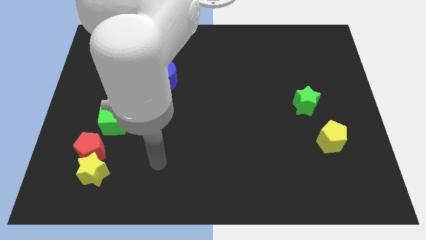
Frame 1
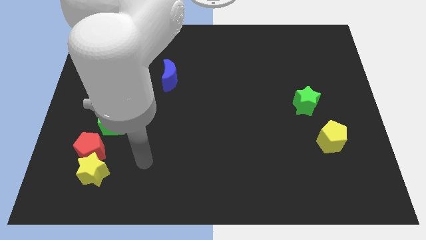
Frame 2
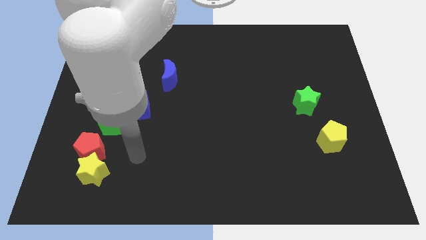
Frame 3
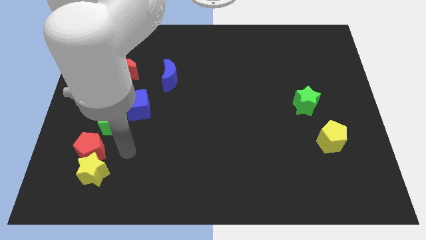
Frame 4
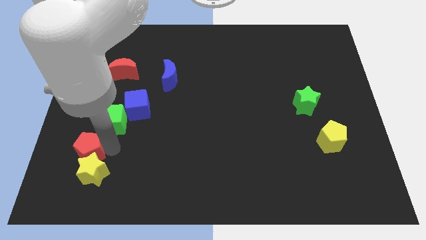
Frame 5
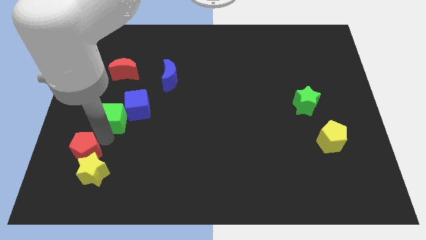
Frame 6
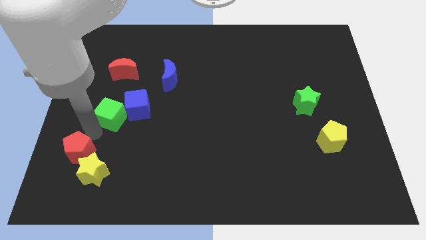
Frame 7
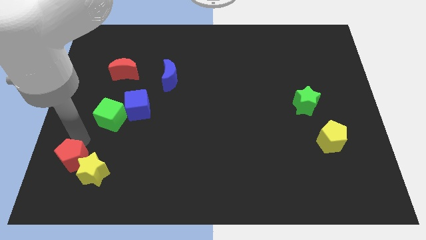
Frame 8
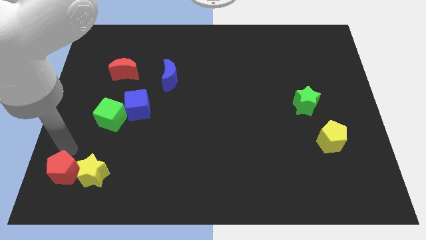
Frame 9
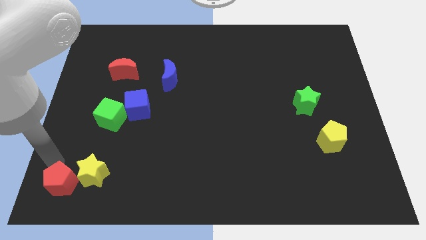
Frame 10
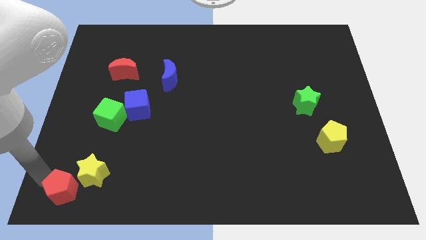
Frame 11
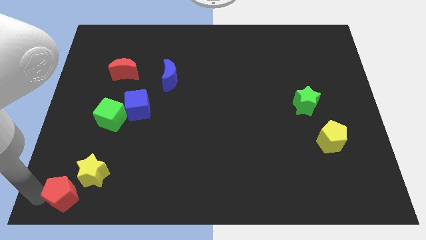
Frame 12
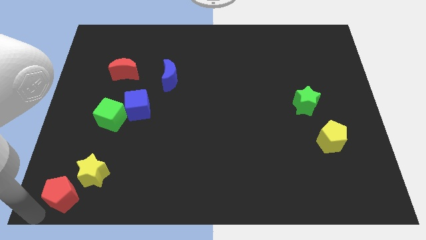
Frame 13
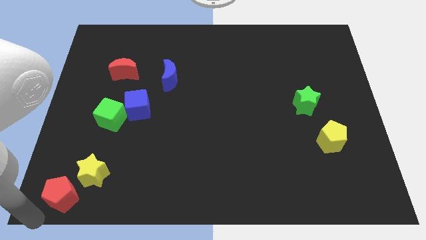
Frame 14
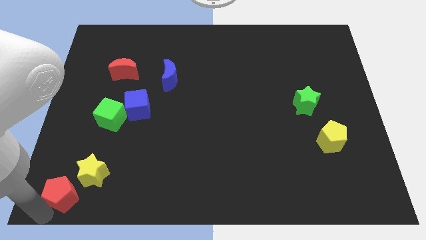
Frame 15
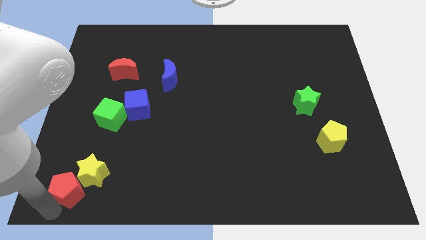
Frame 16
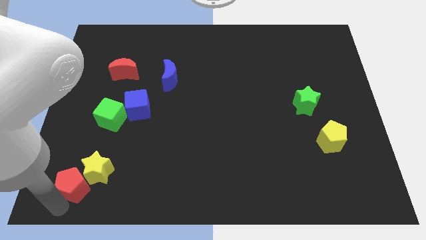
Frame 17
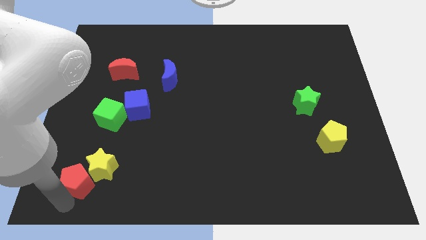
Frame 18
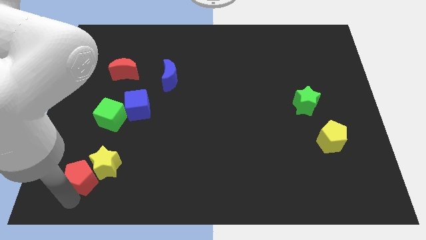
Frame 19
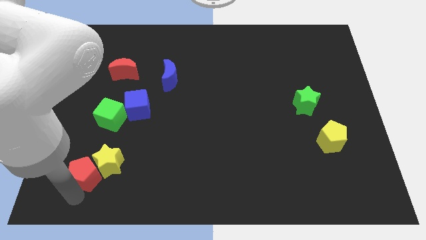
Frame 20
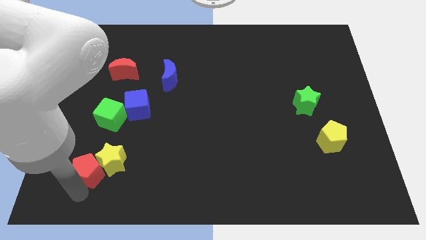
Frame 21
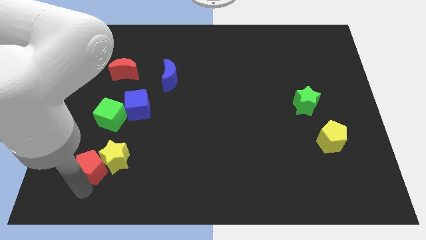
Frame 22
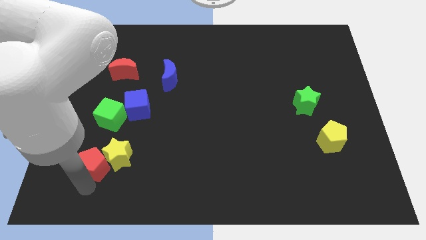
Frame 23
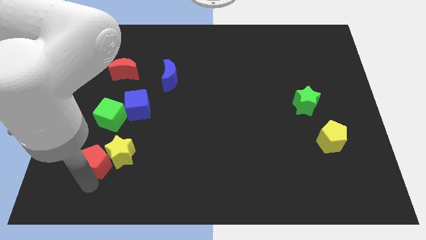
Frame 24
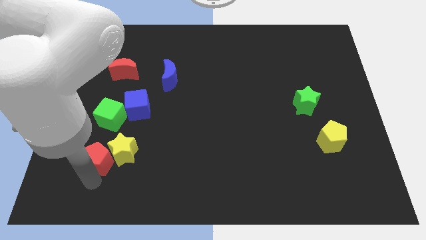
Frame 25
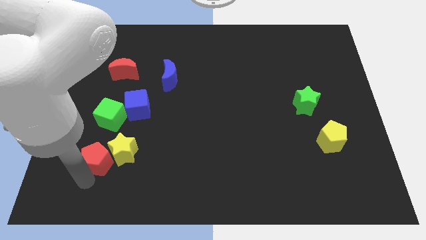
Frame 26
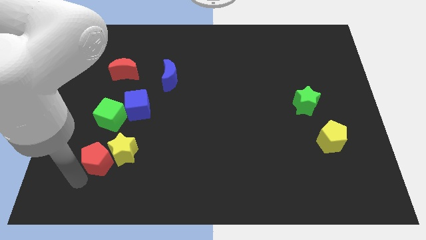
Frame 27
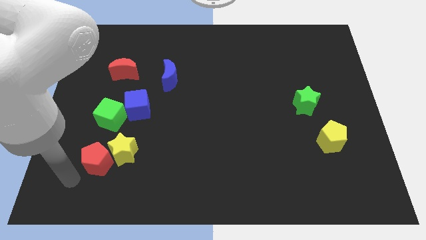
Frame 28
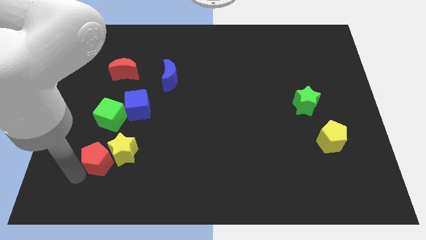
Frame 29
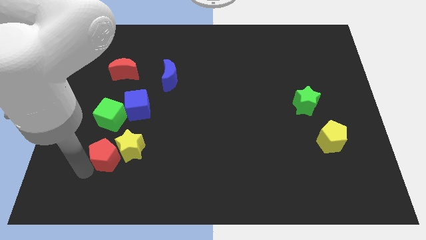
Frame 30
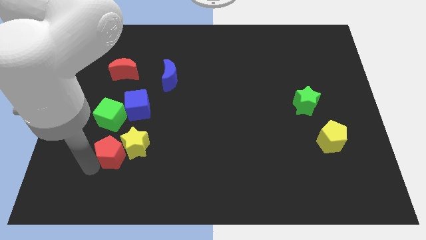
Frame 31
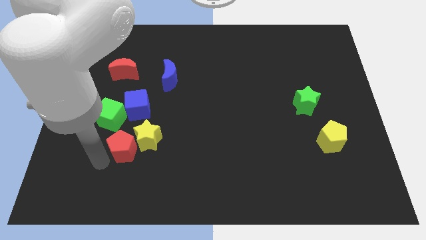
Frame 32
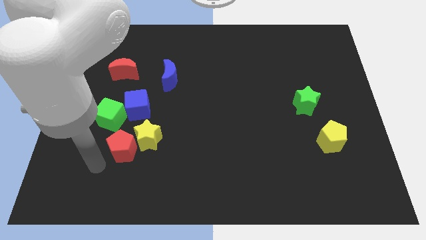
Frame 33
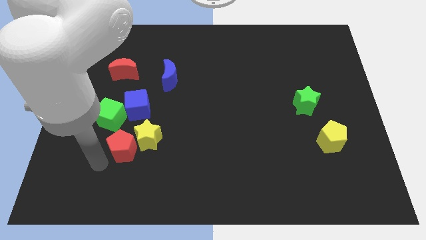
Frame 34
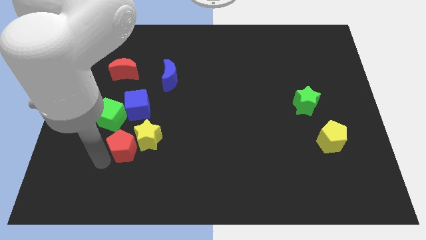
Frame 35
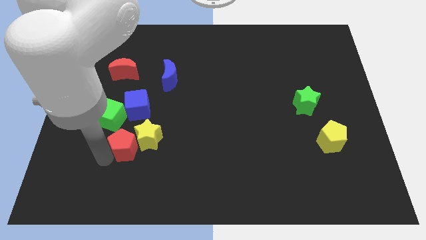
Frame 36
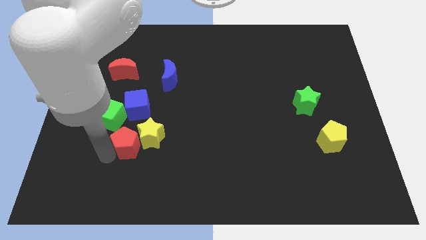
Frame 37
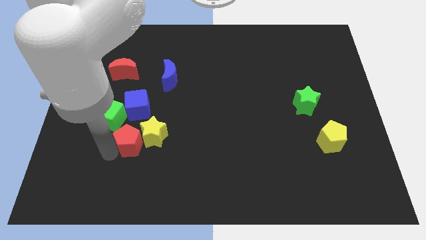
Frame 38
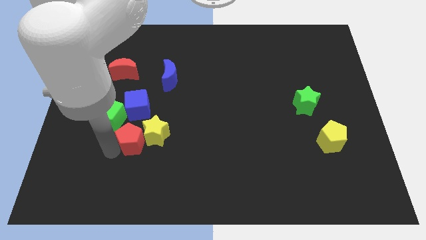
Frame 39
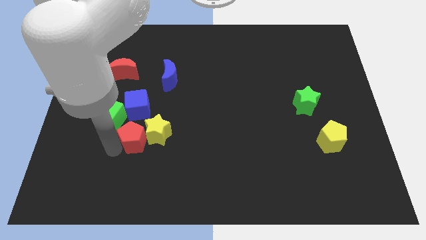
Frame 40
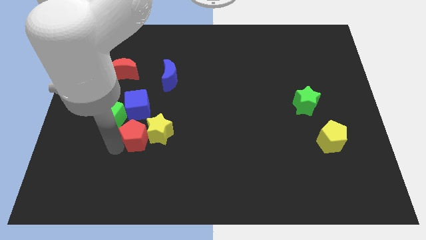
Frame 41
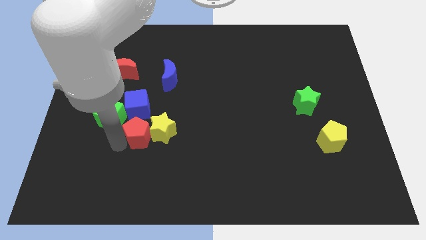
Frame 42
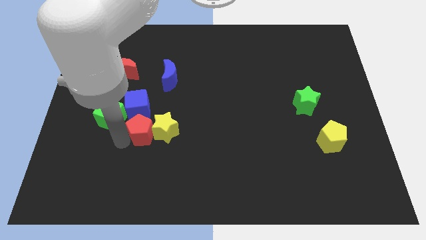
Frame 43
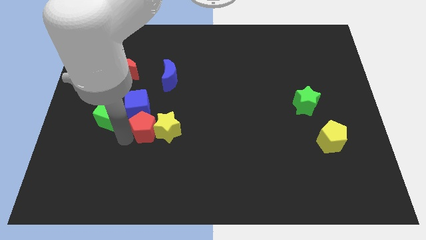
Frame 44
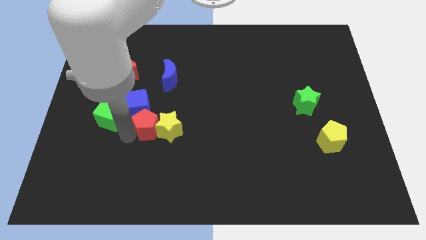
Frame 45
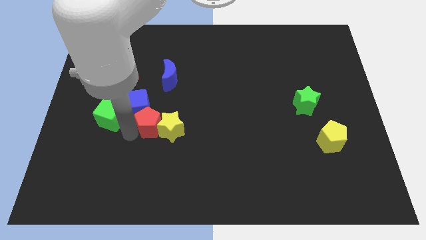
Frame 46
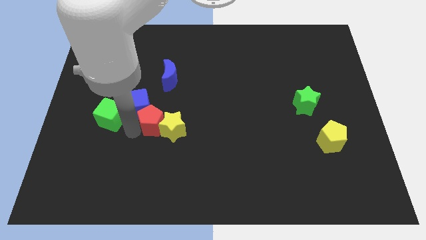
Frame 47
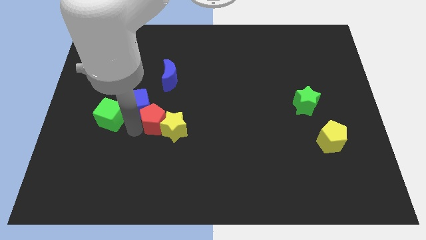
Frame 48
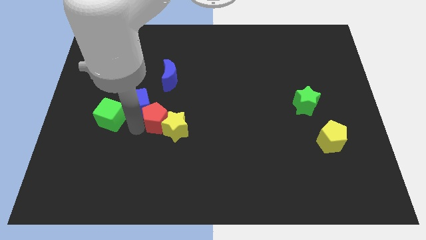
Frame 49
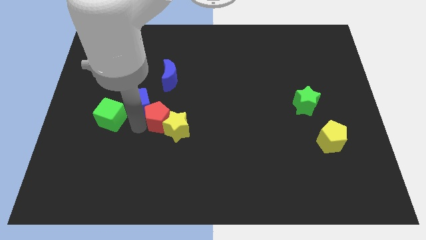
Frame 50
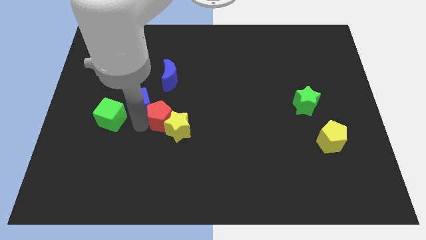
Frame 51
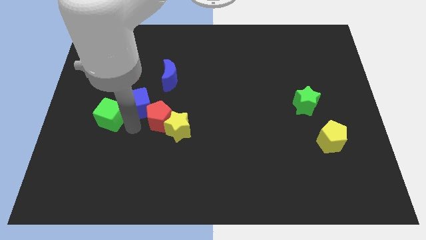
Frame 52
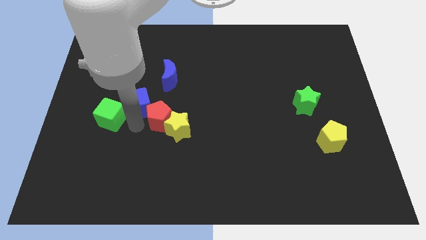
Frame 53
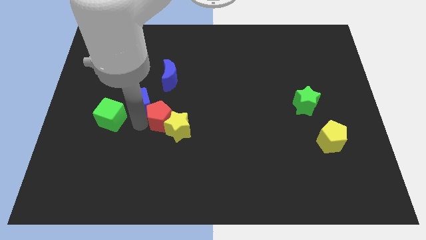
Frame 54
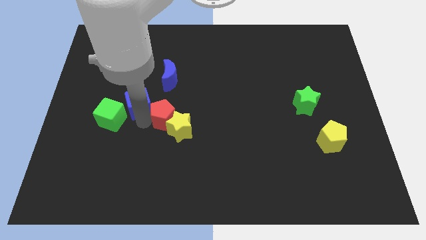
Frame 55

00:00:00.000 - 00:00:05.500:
move the red pentagon to the middle

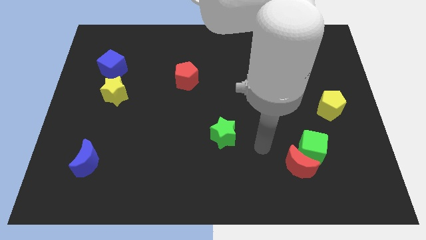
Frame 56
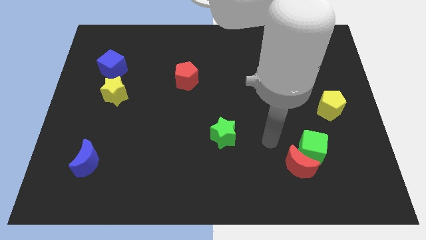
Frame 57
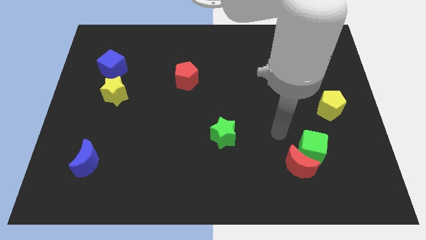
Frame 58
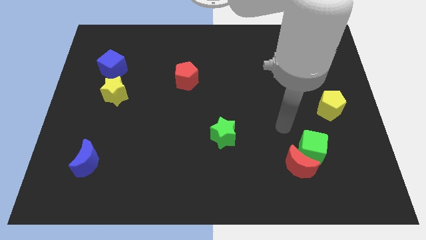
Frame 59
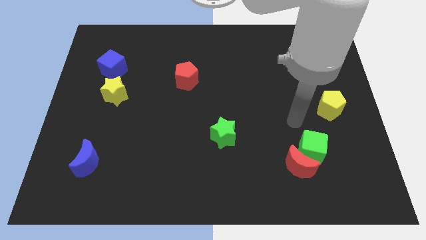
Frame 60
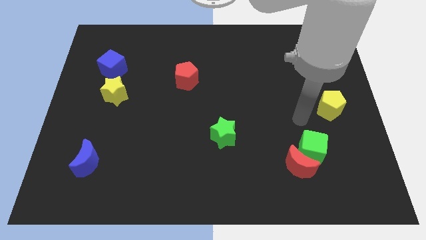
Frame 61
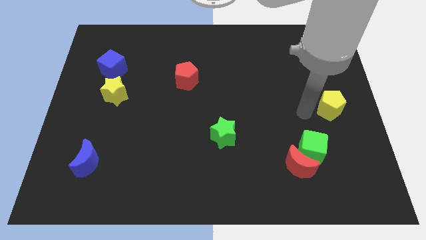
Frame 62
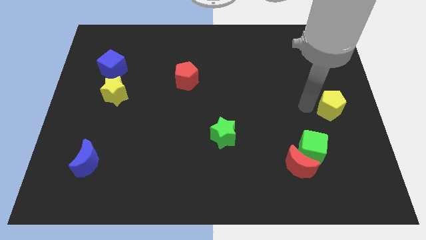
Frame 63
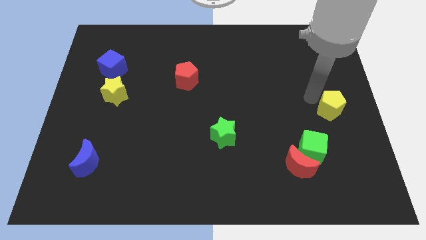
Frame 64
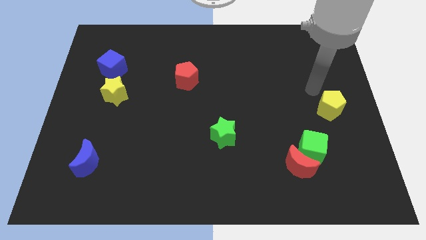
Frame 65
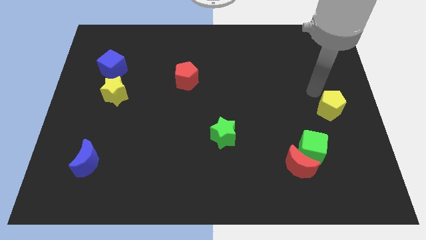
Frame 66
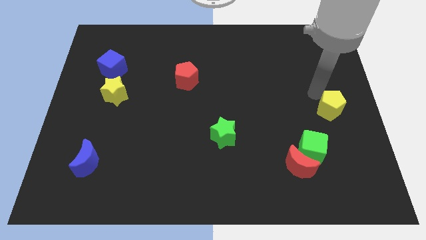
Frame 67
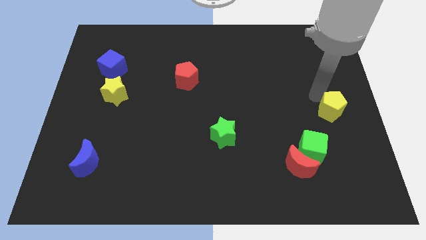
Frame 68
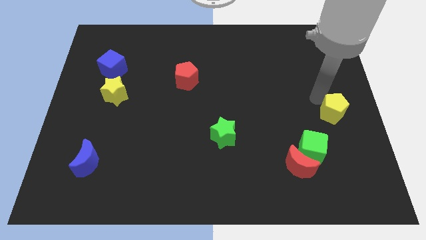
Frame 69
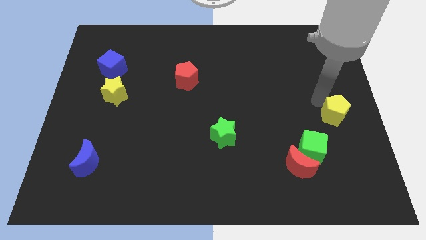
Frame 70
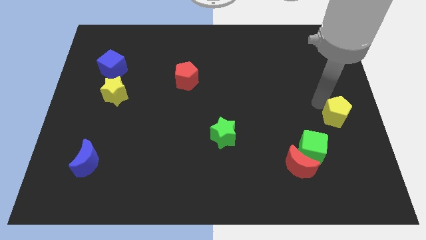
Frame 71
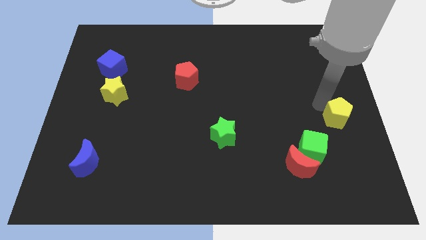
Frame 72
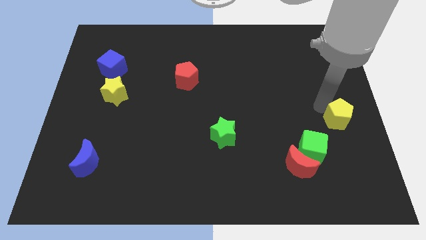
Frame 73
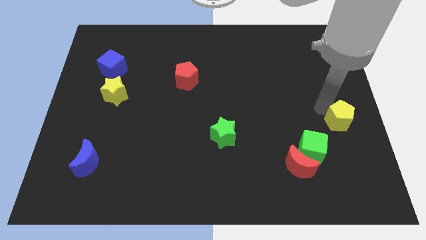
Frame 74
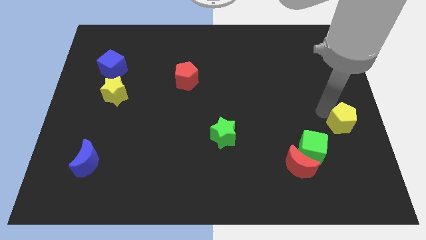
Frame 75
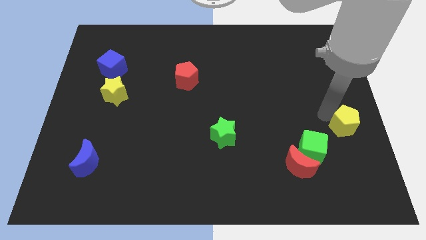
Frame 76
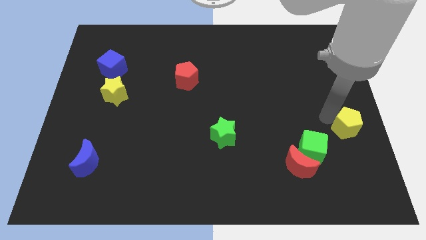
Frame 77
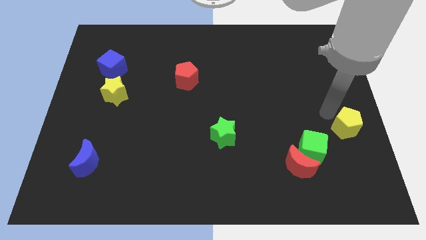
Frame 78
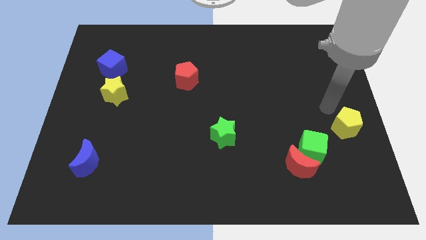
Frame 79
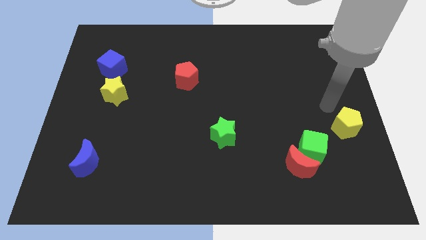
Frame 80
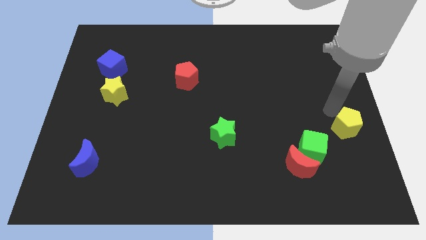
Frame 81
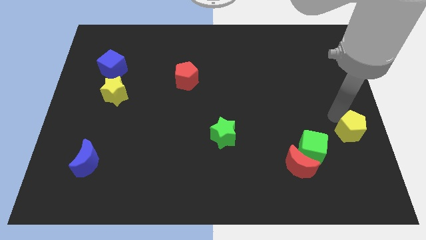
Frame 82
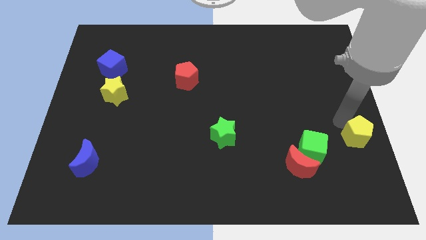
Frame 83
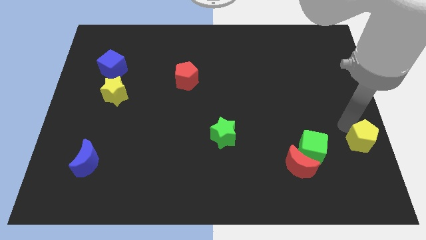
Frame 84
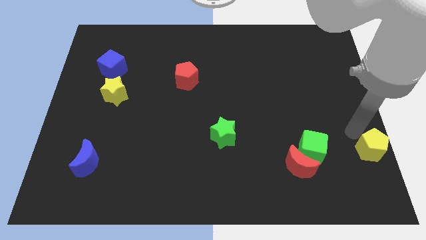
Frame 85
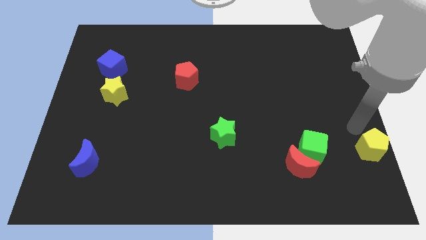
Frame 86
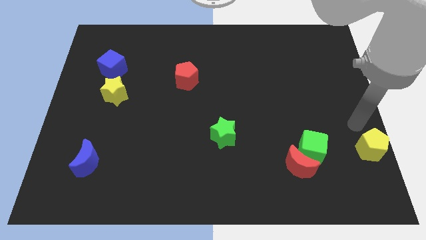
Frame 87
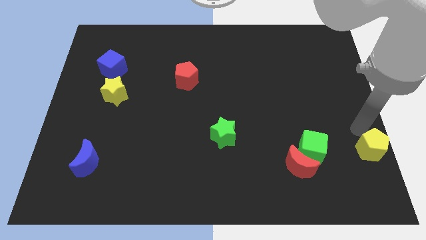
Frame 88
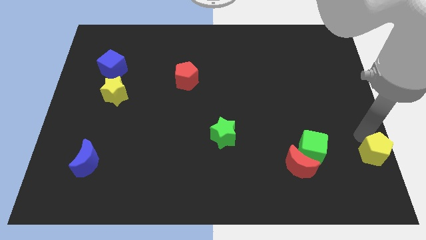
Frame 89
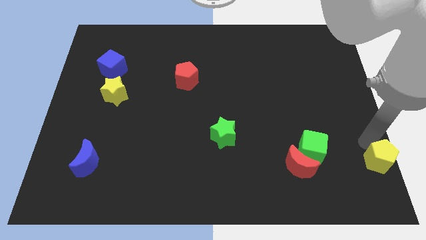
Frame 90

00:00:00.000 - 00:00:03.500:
push the yellow pentagon to the bottom right corner
